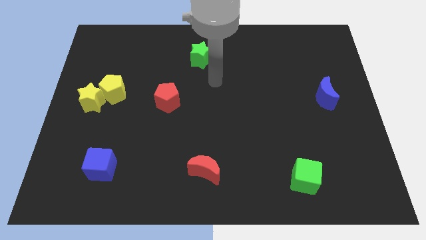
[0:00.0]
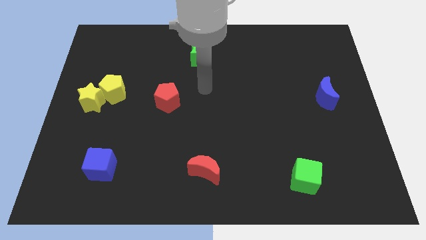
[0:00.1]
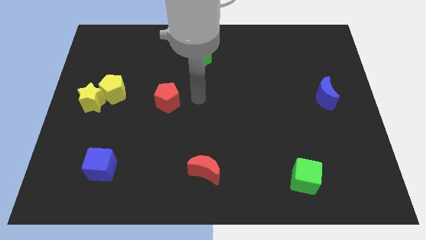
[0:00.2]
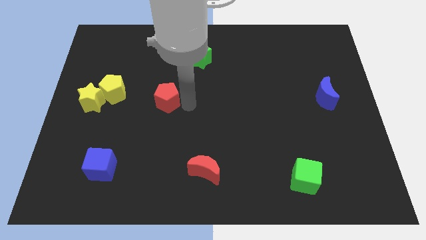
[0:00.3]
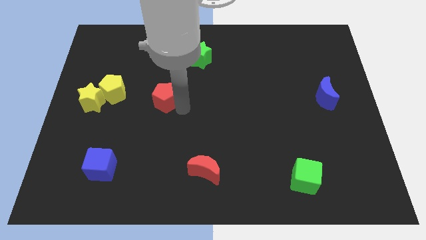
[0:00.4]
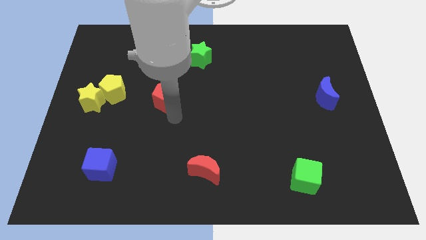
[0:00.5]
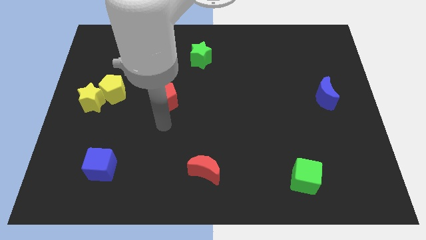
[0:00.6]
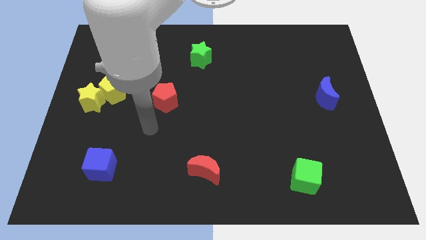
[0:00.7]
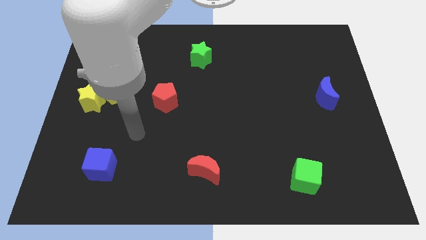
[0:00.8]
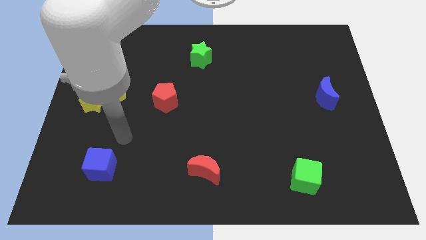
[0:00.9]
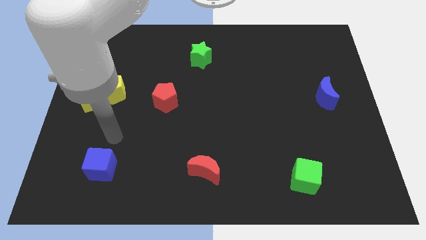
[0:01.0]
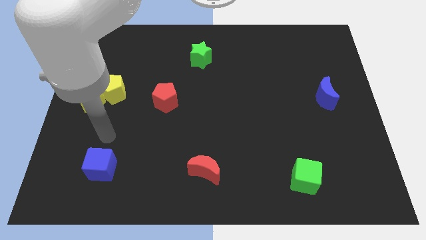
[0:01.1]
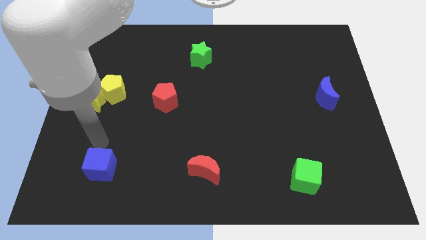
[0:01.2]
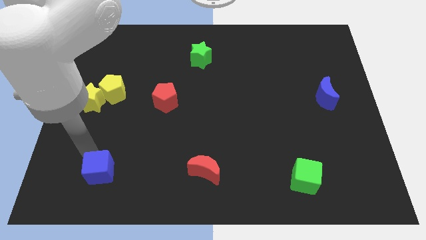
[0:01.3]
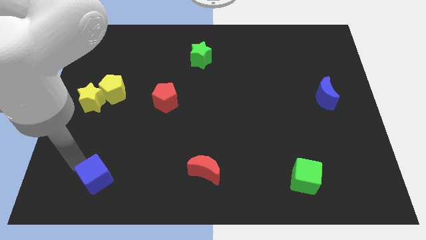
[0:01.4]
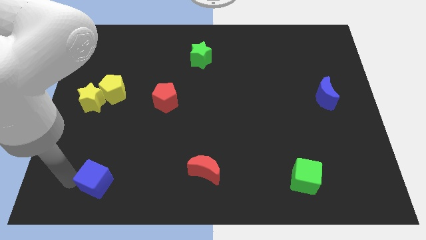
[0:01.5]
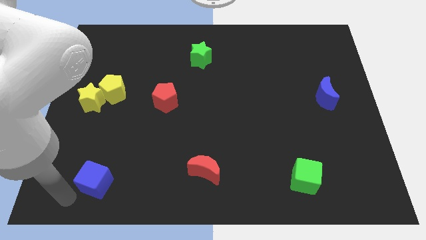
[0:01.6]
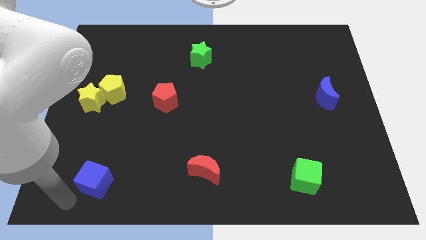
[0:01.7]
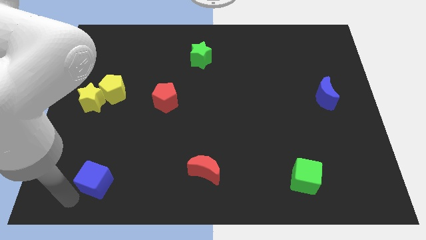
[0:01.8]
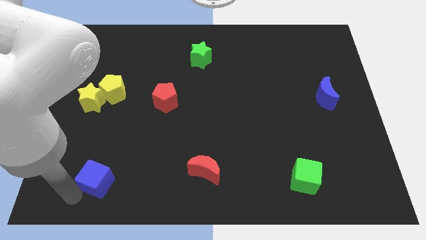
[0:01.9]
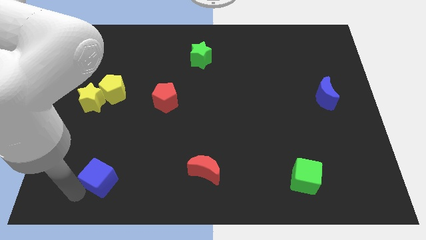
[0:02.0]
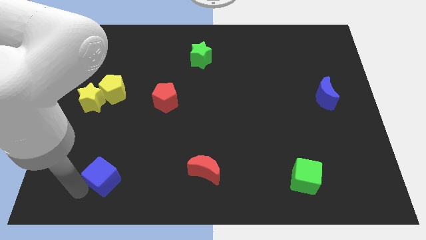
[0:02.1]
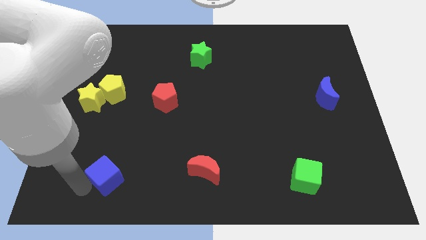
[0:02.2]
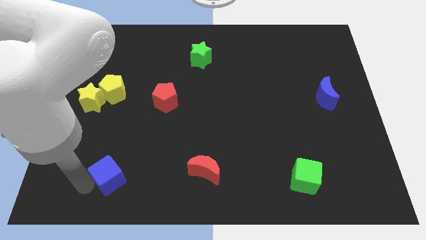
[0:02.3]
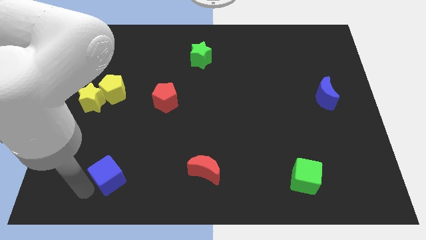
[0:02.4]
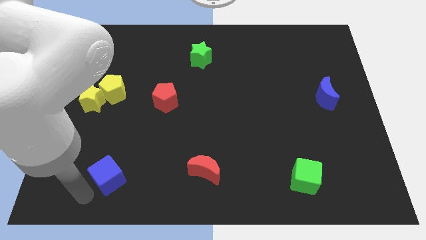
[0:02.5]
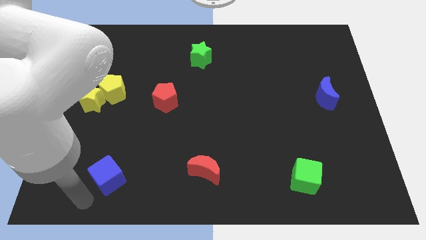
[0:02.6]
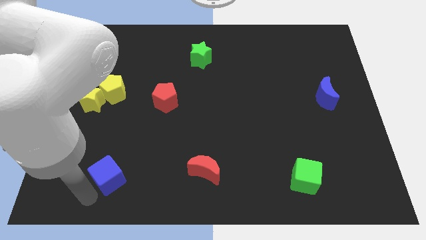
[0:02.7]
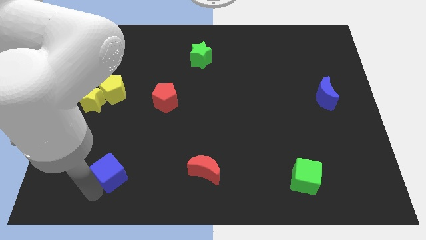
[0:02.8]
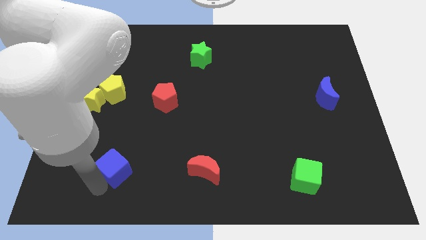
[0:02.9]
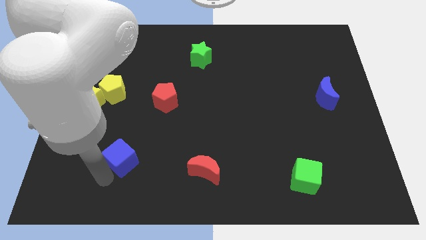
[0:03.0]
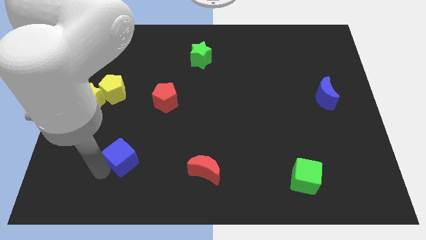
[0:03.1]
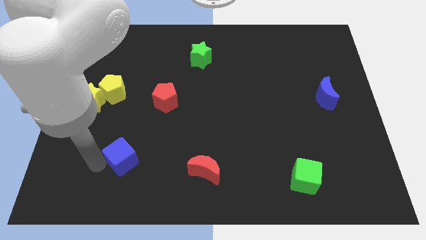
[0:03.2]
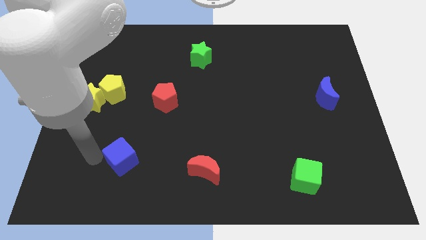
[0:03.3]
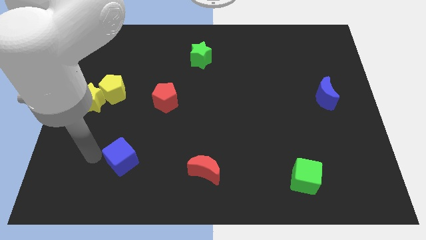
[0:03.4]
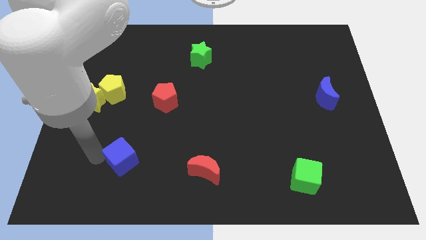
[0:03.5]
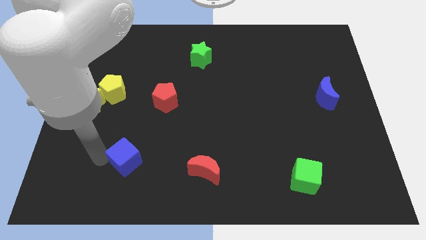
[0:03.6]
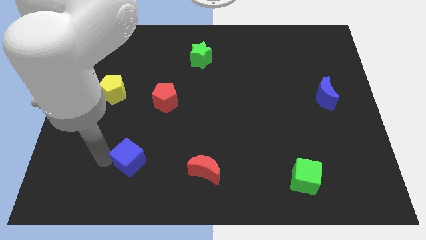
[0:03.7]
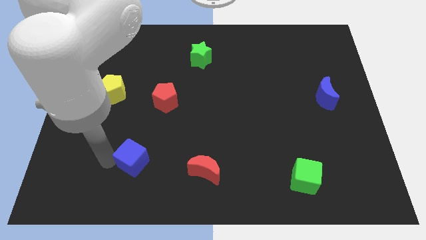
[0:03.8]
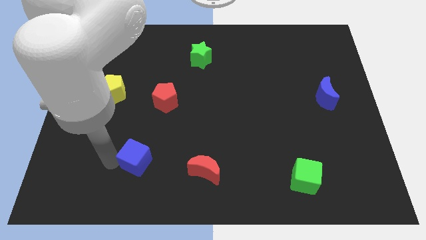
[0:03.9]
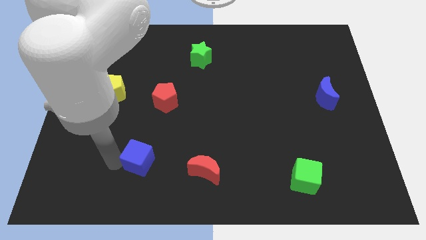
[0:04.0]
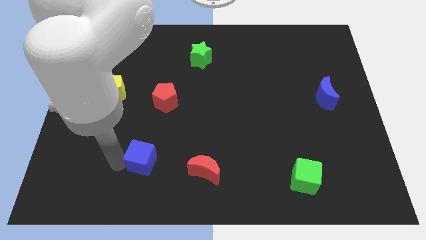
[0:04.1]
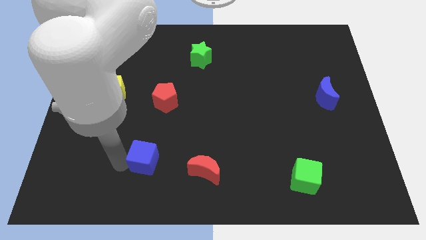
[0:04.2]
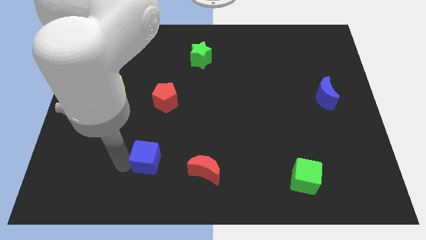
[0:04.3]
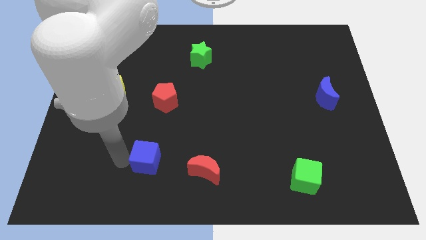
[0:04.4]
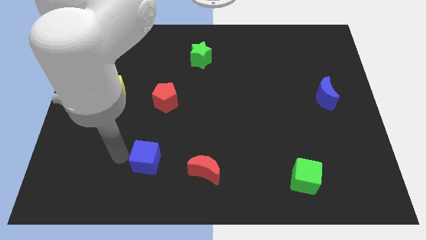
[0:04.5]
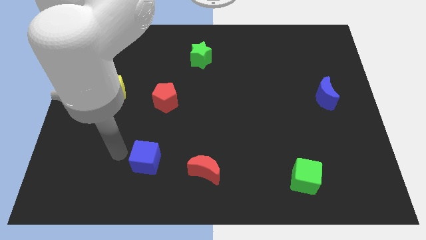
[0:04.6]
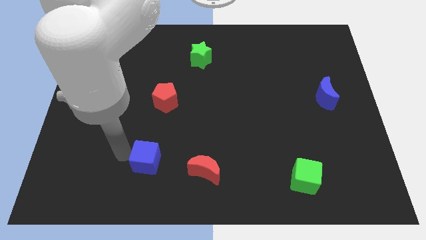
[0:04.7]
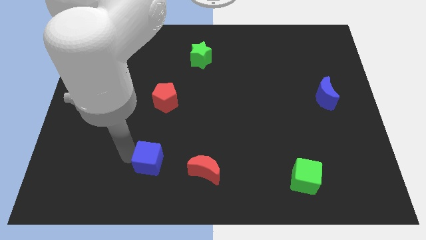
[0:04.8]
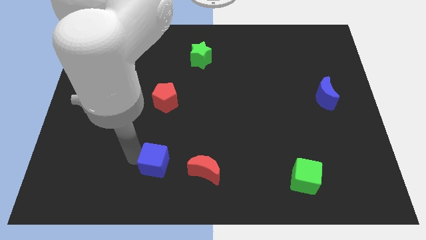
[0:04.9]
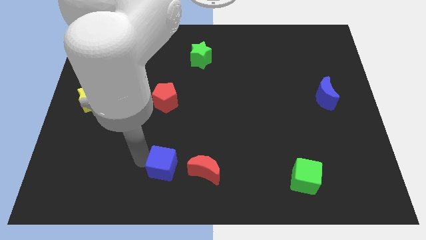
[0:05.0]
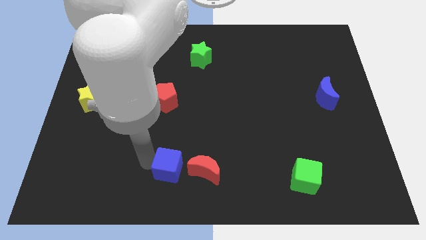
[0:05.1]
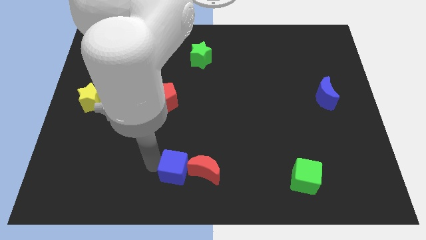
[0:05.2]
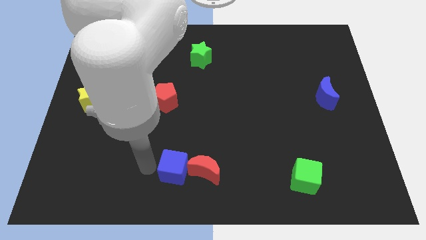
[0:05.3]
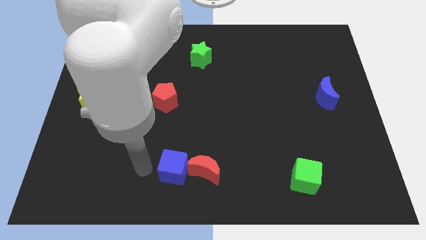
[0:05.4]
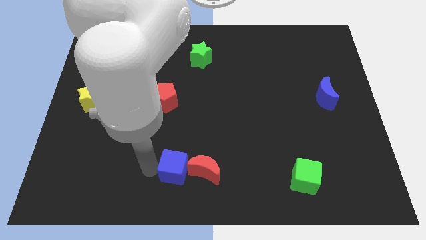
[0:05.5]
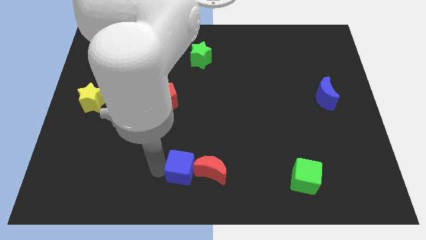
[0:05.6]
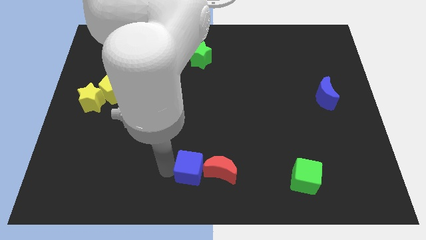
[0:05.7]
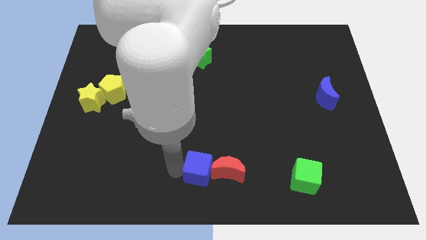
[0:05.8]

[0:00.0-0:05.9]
put the blue cube close to the red moon
